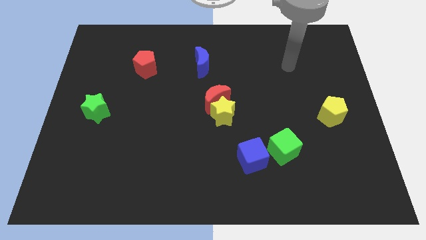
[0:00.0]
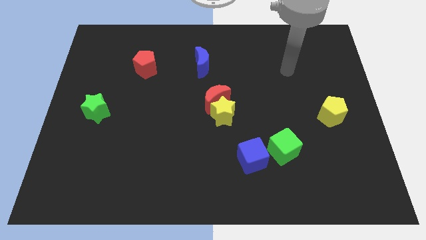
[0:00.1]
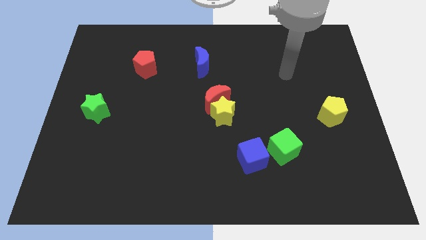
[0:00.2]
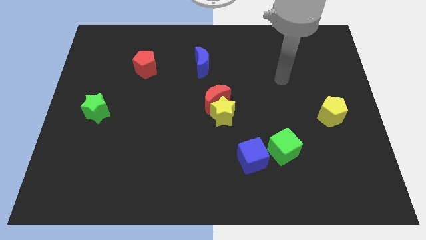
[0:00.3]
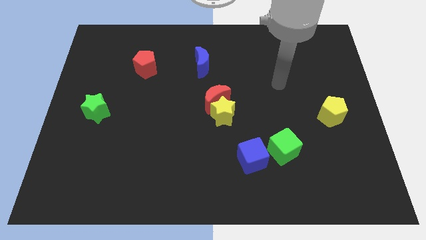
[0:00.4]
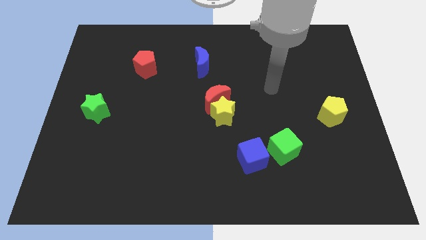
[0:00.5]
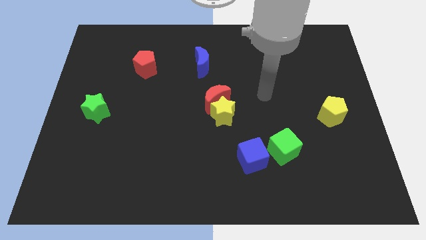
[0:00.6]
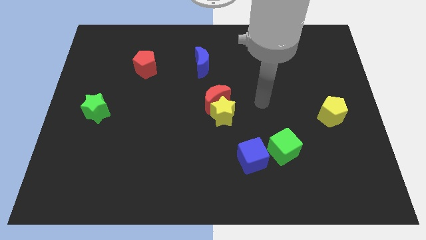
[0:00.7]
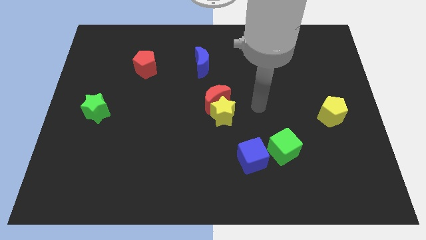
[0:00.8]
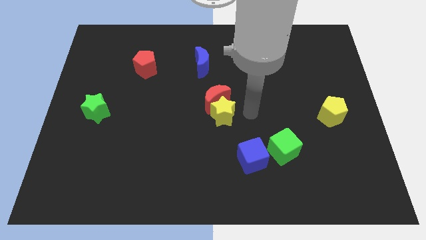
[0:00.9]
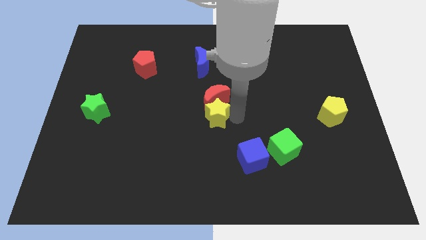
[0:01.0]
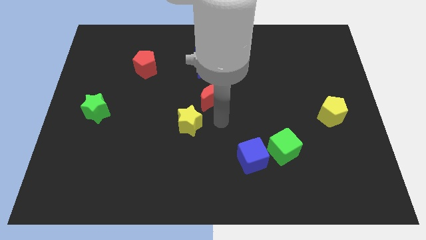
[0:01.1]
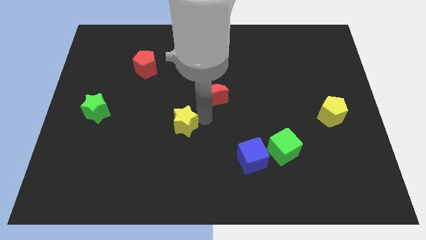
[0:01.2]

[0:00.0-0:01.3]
move the red moon away from the yellow star

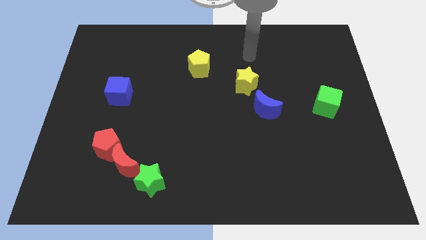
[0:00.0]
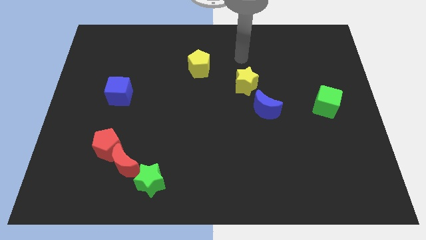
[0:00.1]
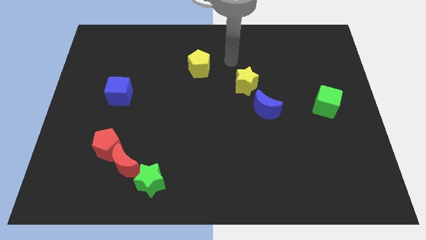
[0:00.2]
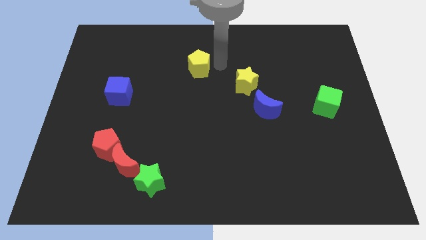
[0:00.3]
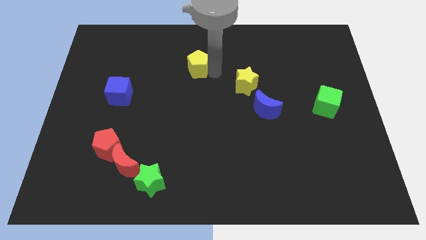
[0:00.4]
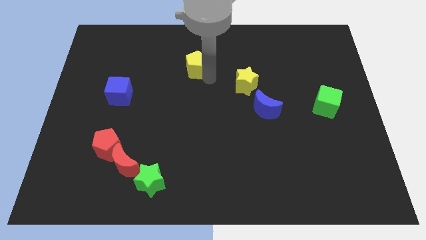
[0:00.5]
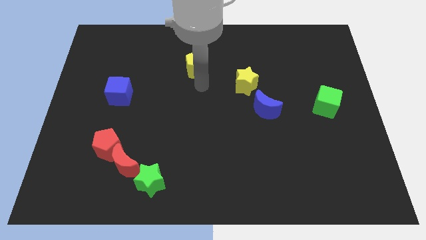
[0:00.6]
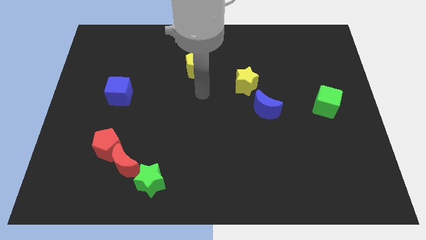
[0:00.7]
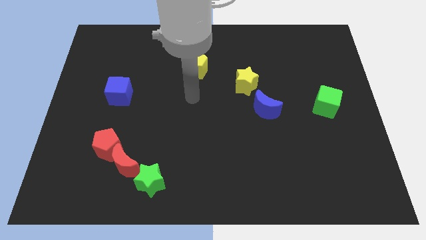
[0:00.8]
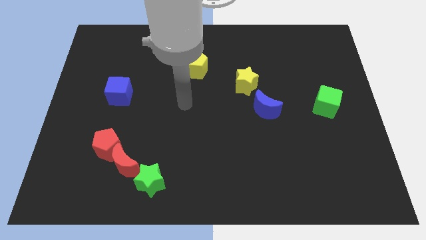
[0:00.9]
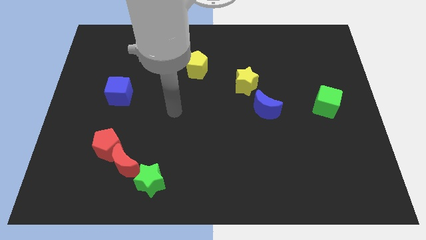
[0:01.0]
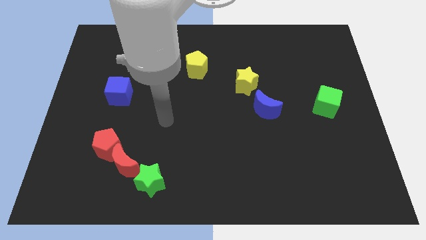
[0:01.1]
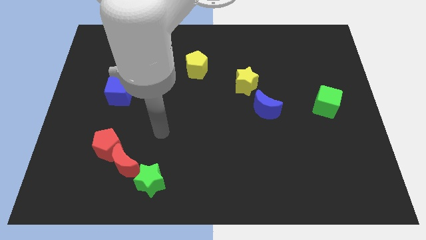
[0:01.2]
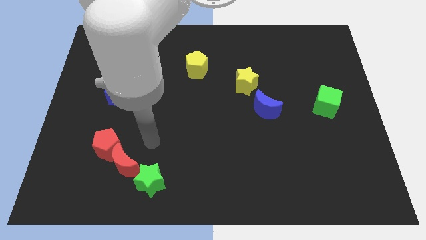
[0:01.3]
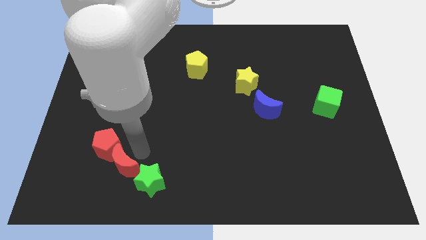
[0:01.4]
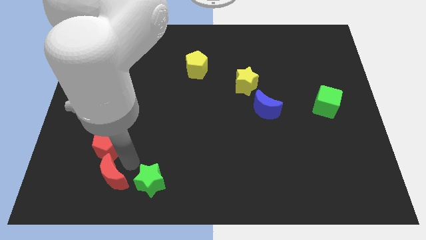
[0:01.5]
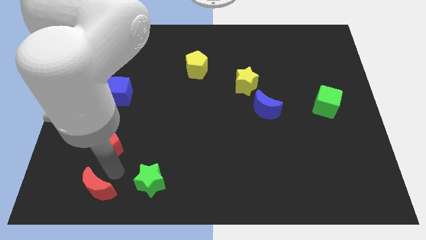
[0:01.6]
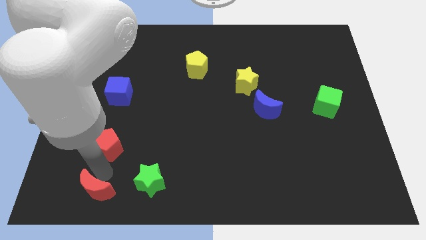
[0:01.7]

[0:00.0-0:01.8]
move the red pentagon away from the red moon

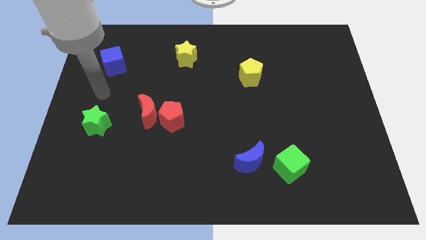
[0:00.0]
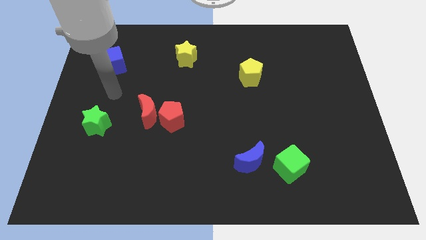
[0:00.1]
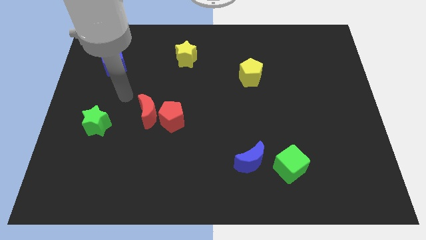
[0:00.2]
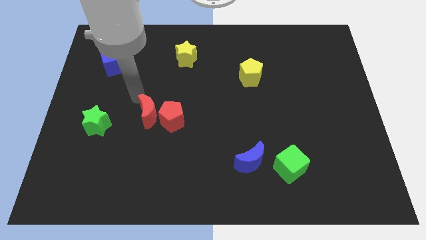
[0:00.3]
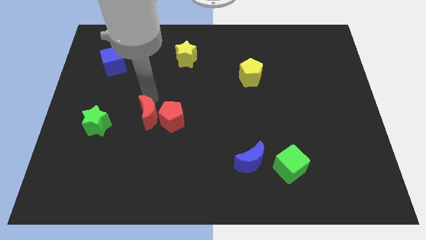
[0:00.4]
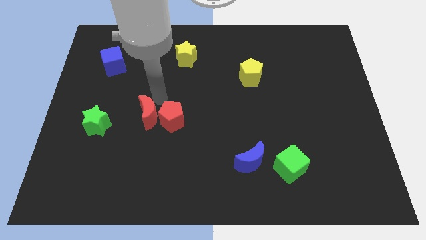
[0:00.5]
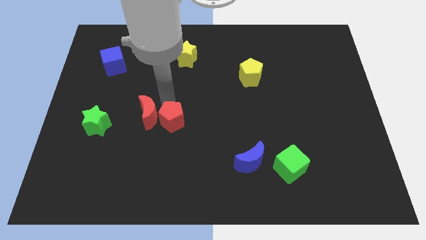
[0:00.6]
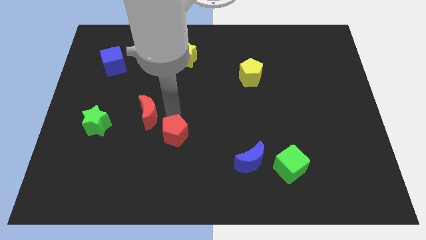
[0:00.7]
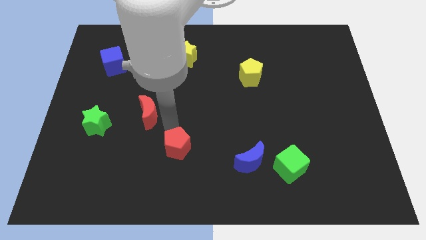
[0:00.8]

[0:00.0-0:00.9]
move the red moon away from the red pentagon

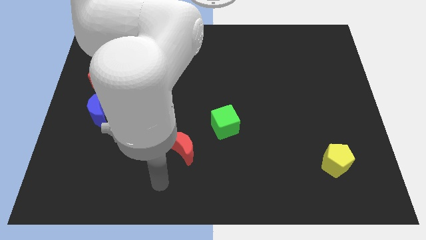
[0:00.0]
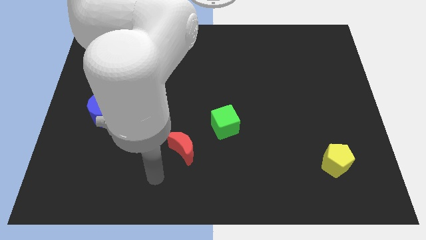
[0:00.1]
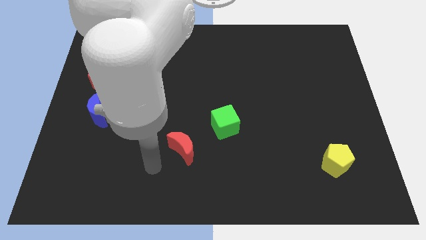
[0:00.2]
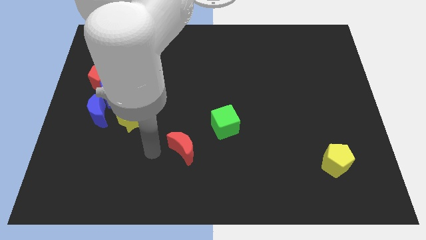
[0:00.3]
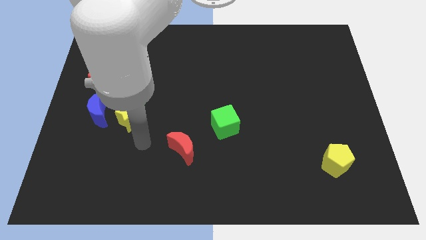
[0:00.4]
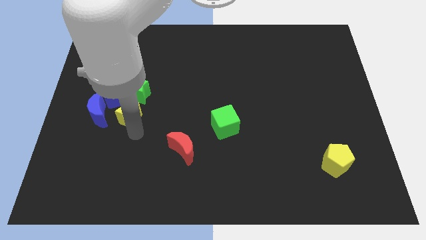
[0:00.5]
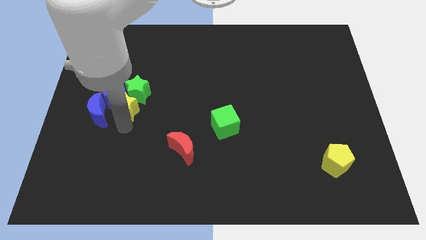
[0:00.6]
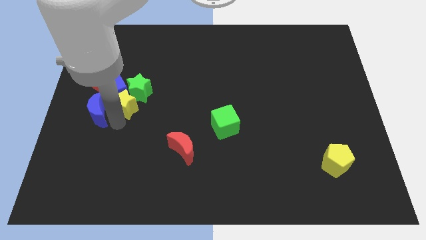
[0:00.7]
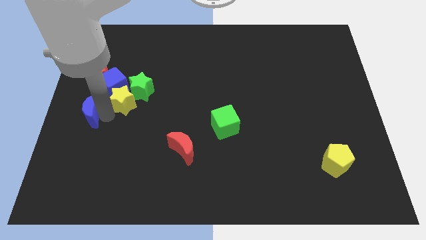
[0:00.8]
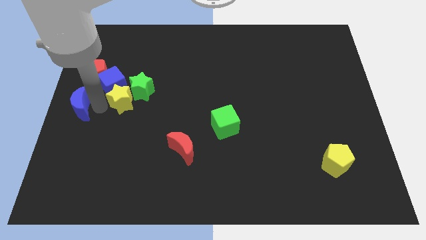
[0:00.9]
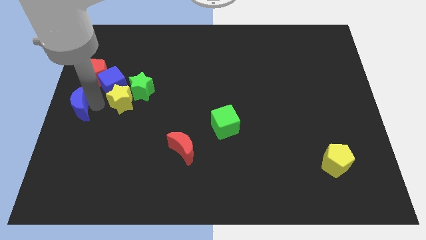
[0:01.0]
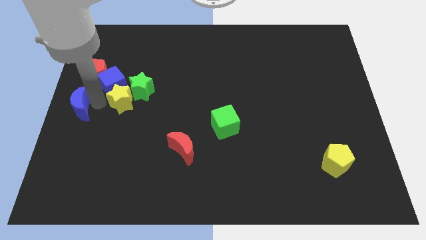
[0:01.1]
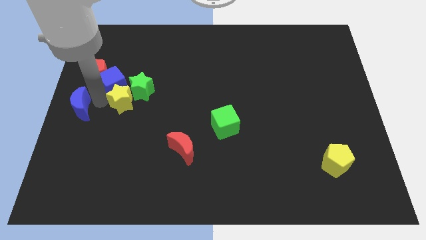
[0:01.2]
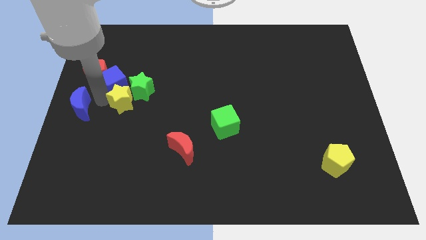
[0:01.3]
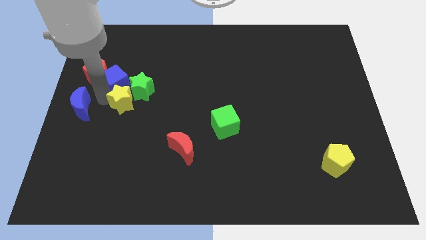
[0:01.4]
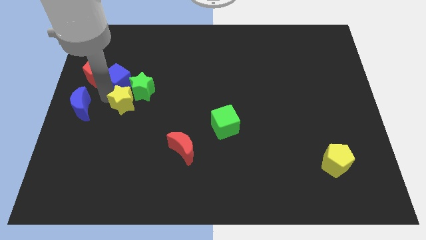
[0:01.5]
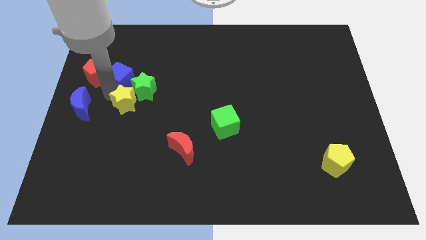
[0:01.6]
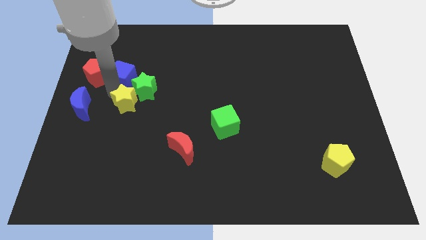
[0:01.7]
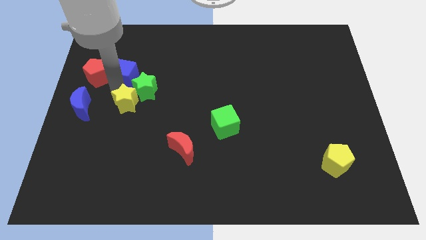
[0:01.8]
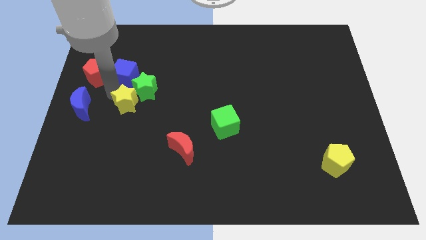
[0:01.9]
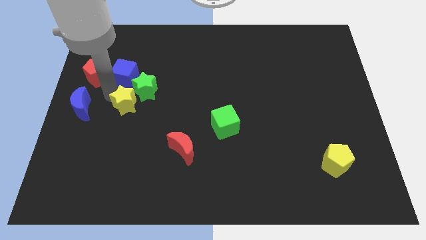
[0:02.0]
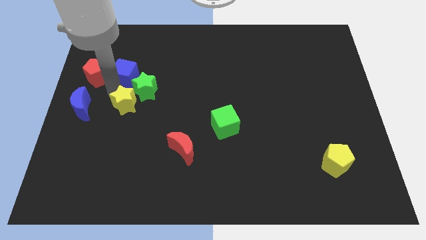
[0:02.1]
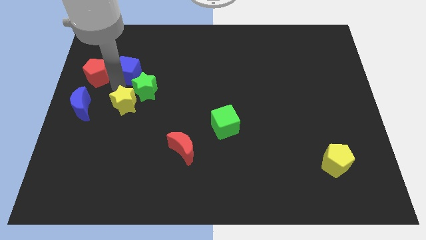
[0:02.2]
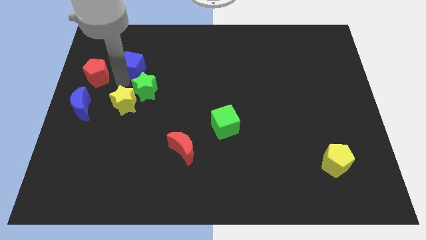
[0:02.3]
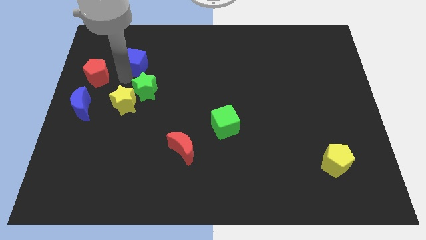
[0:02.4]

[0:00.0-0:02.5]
pull the blue cube apart from the group

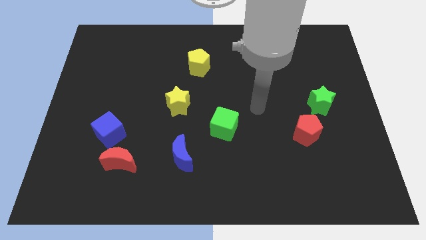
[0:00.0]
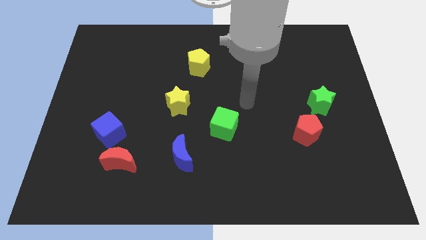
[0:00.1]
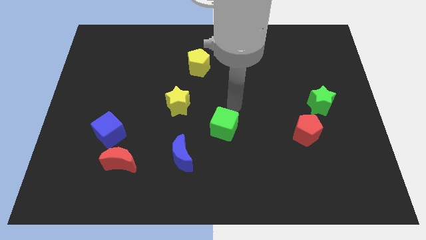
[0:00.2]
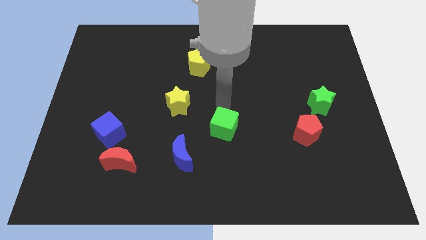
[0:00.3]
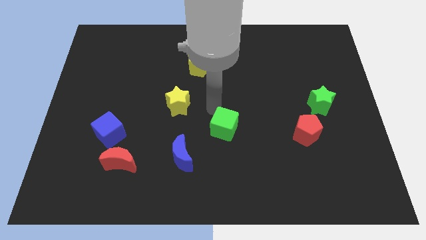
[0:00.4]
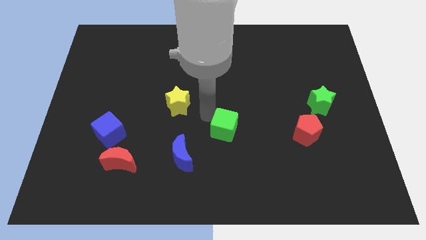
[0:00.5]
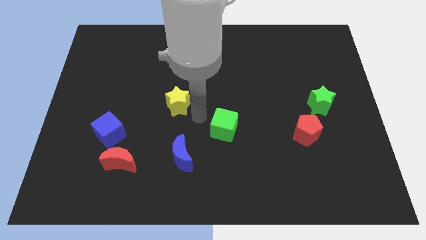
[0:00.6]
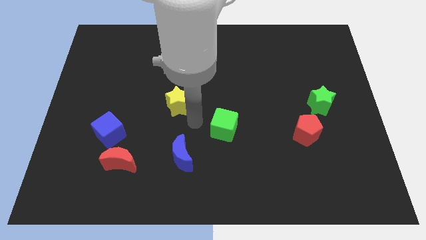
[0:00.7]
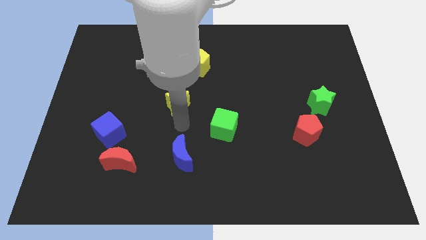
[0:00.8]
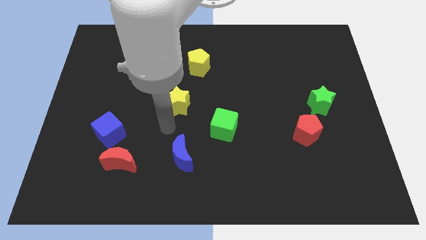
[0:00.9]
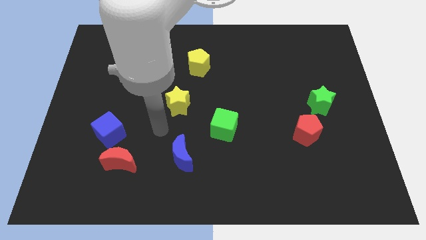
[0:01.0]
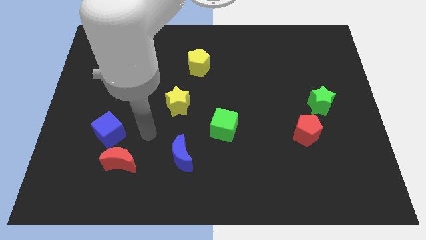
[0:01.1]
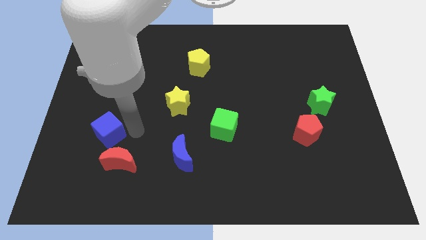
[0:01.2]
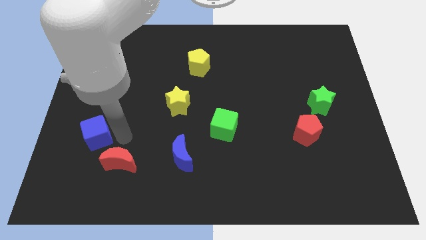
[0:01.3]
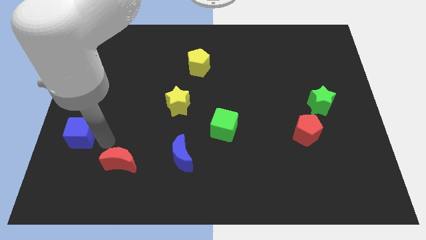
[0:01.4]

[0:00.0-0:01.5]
pull the red moon apart from the blue cube

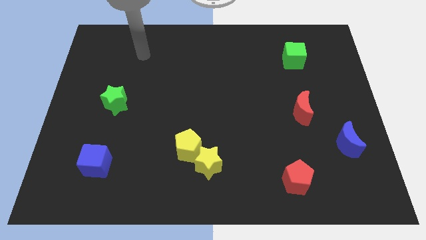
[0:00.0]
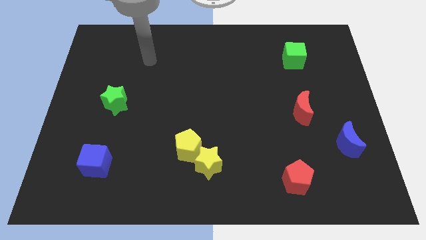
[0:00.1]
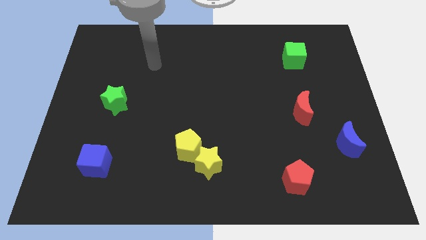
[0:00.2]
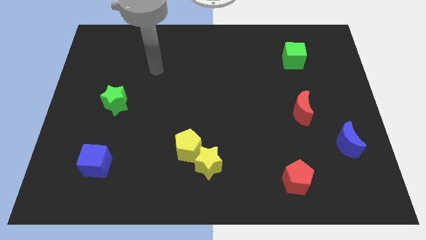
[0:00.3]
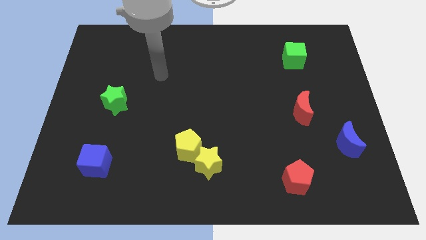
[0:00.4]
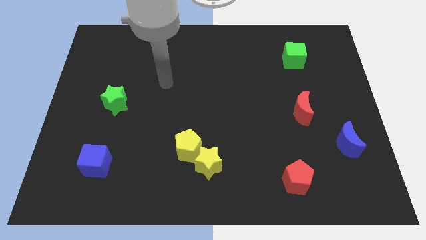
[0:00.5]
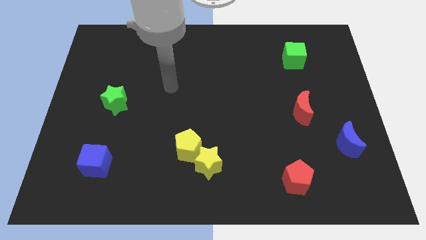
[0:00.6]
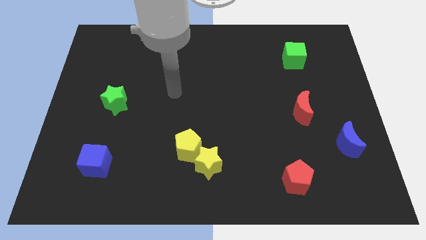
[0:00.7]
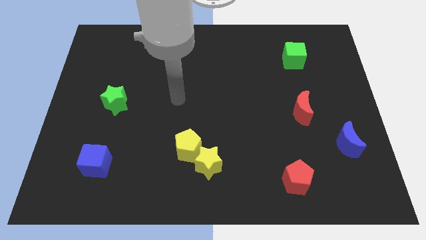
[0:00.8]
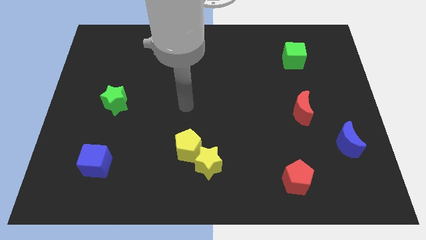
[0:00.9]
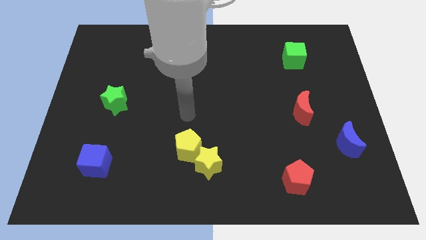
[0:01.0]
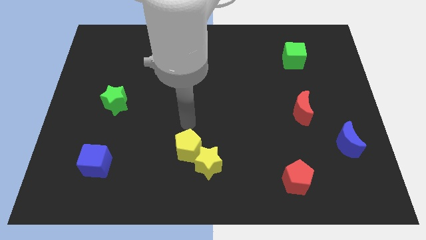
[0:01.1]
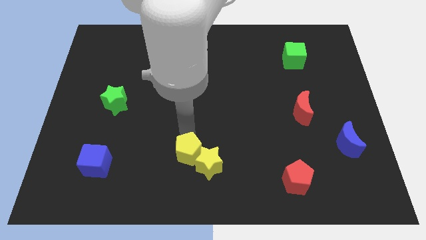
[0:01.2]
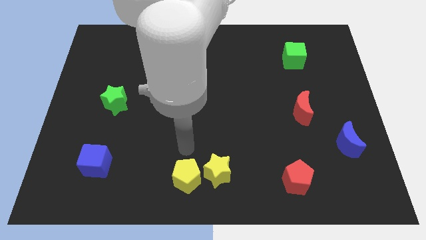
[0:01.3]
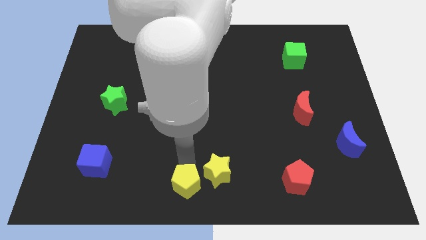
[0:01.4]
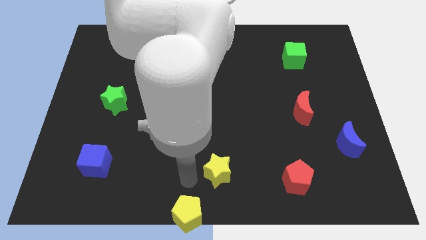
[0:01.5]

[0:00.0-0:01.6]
move the yellow star away from the yellow pentagon
